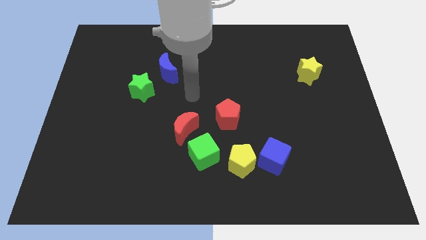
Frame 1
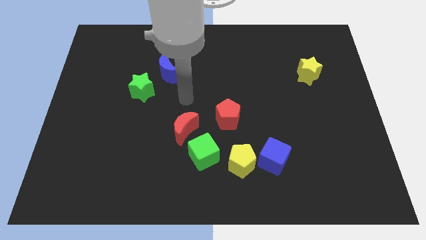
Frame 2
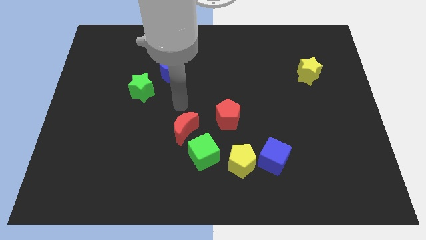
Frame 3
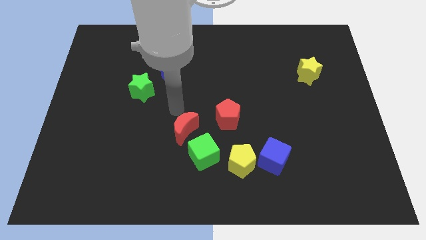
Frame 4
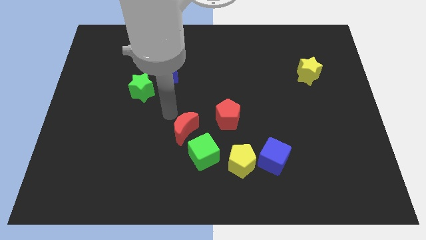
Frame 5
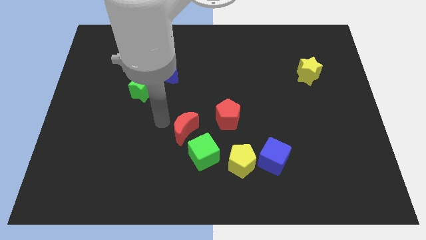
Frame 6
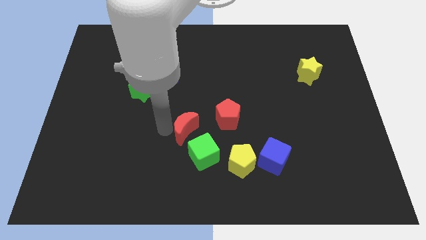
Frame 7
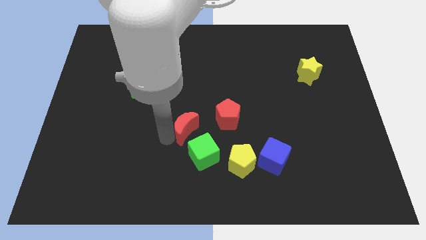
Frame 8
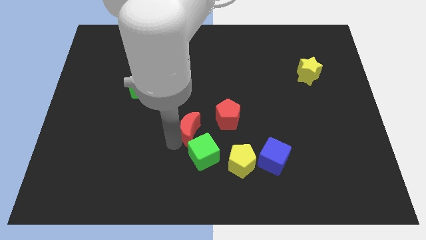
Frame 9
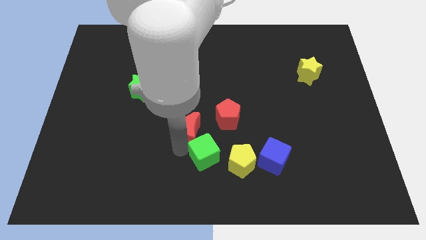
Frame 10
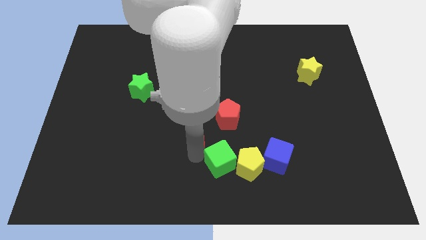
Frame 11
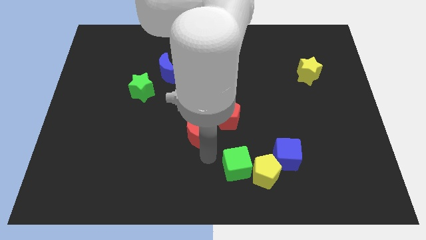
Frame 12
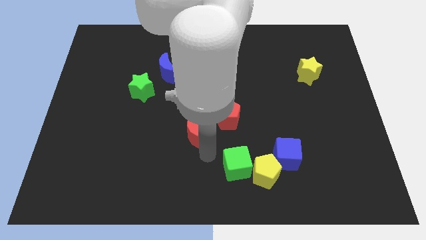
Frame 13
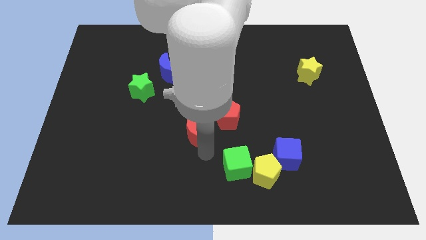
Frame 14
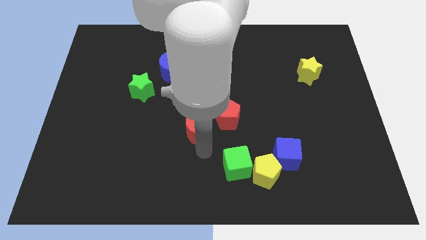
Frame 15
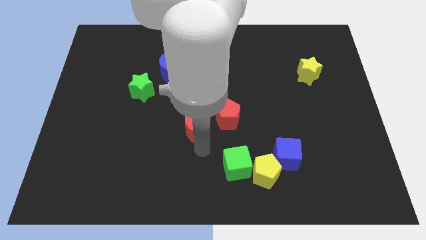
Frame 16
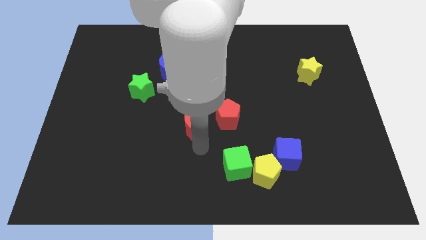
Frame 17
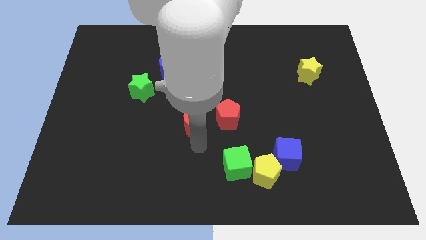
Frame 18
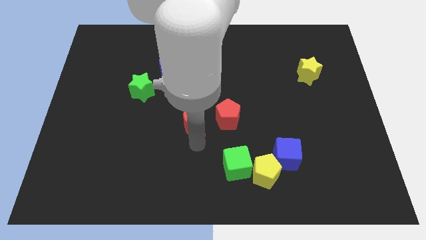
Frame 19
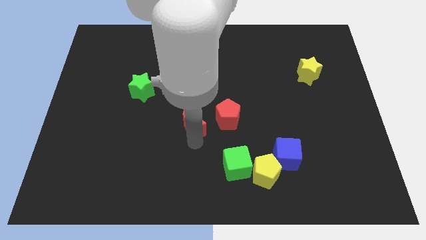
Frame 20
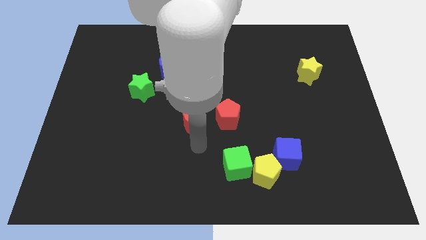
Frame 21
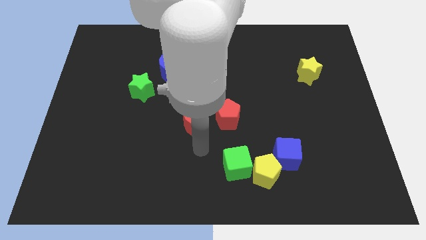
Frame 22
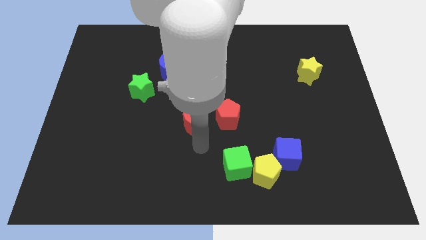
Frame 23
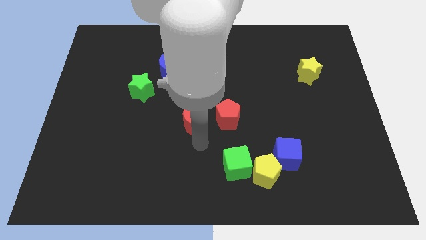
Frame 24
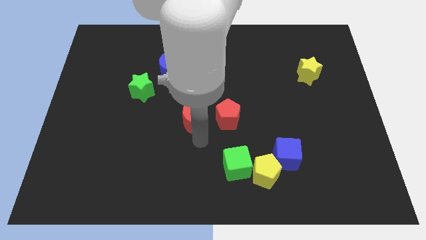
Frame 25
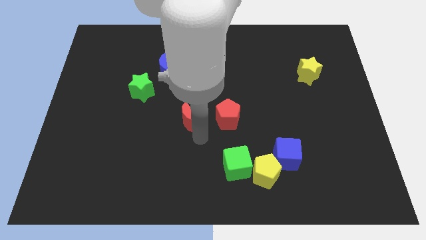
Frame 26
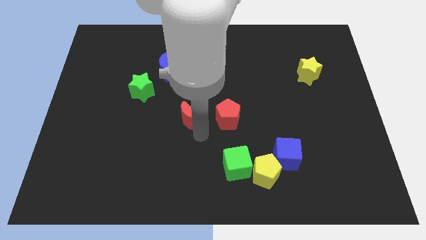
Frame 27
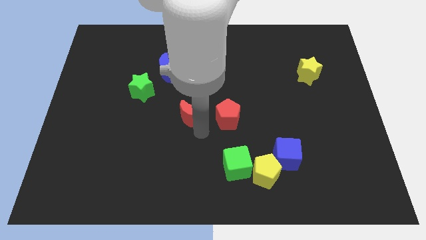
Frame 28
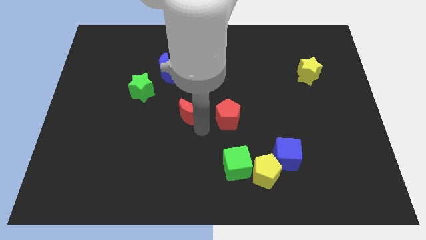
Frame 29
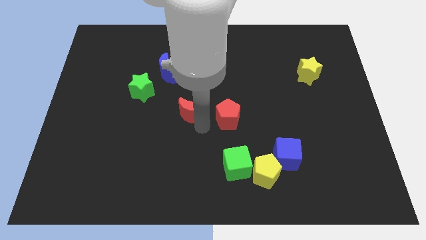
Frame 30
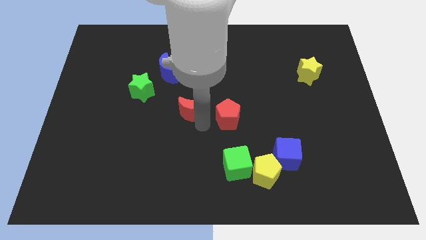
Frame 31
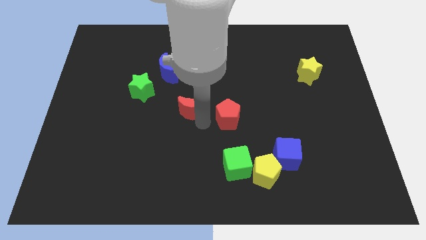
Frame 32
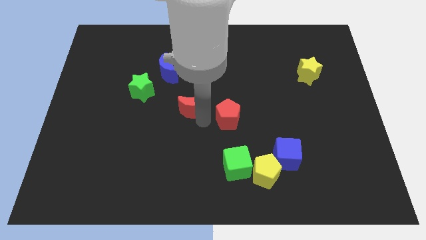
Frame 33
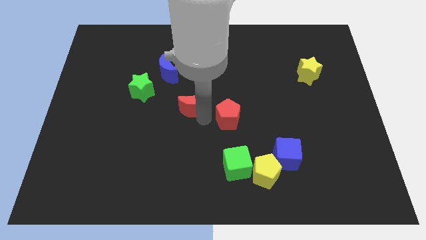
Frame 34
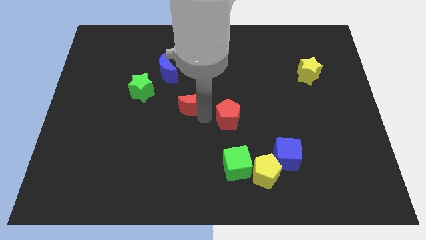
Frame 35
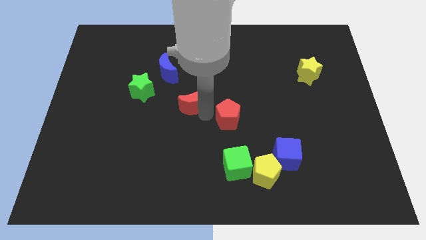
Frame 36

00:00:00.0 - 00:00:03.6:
move the red moon up a bit

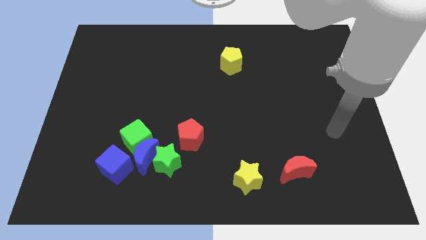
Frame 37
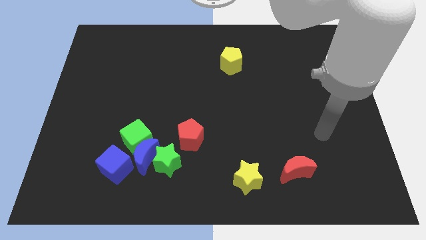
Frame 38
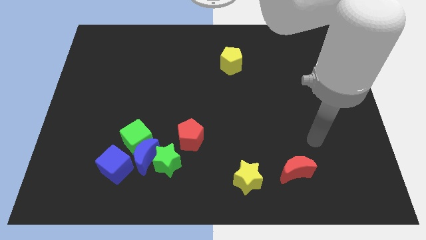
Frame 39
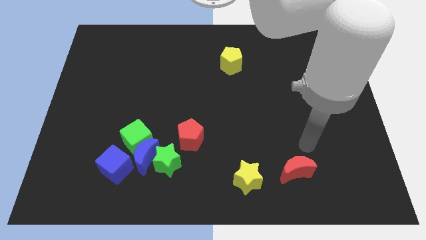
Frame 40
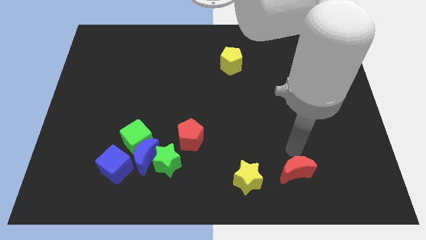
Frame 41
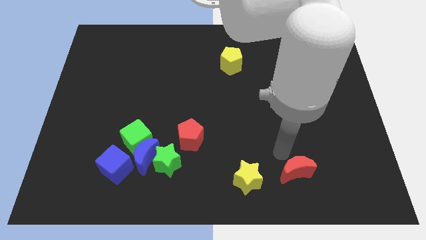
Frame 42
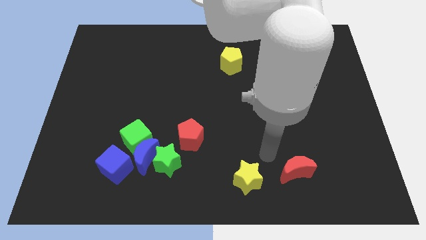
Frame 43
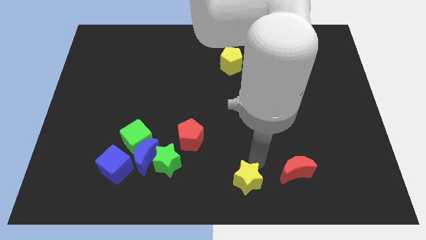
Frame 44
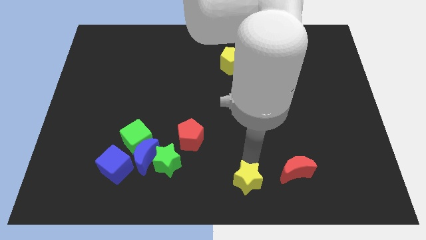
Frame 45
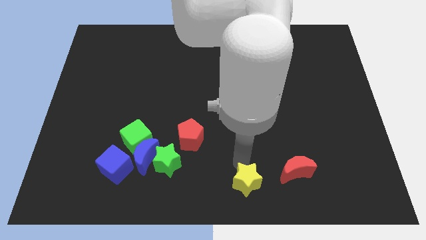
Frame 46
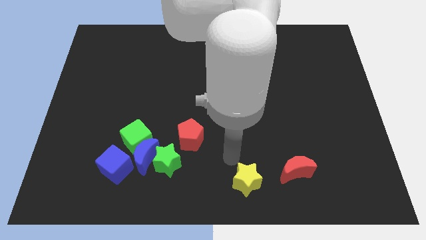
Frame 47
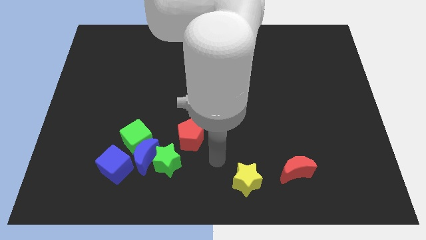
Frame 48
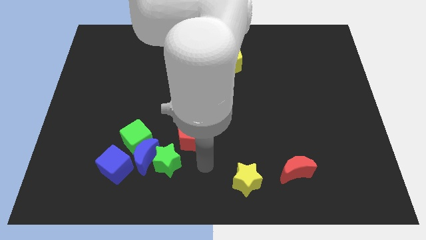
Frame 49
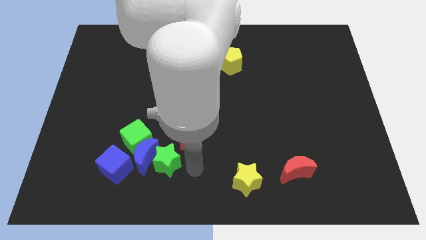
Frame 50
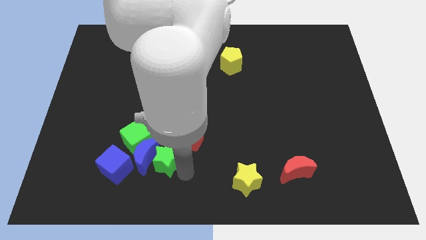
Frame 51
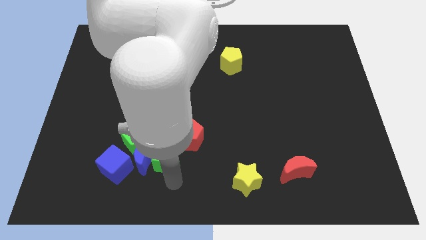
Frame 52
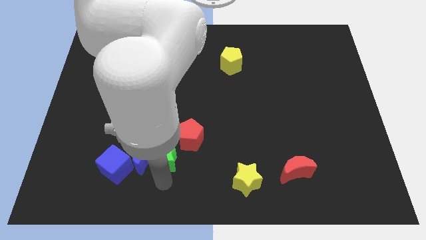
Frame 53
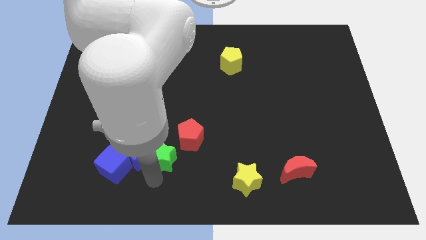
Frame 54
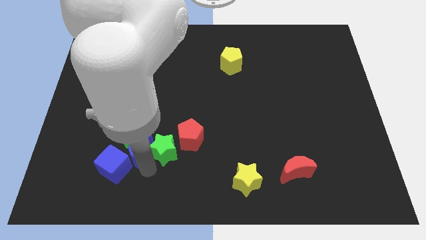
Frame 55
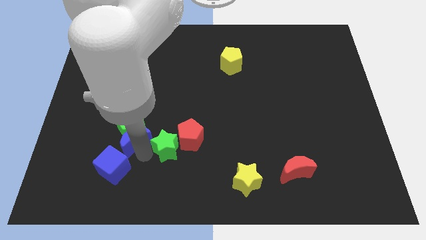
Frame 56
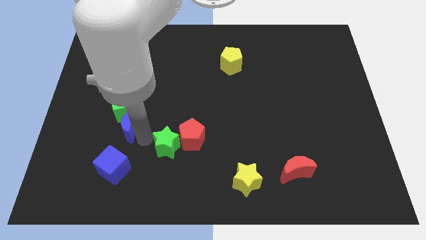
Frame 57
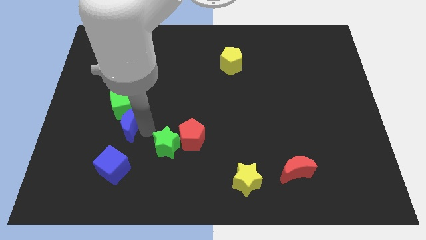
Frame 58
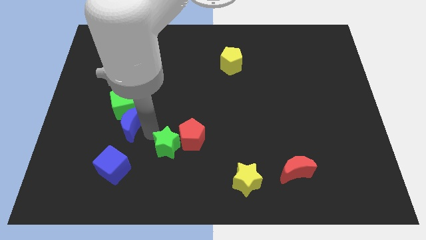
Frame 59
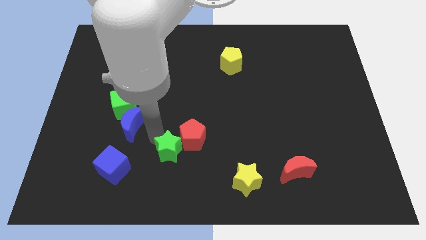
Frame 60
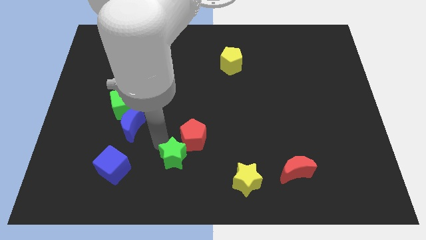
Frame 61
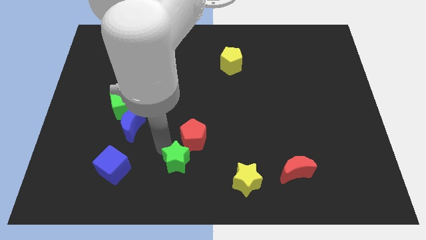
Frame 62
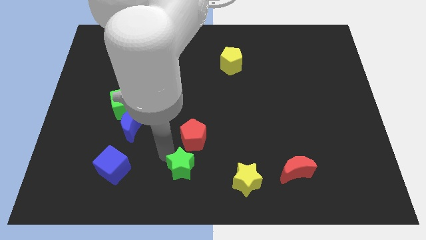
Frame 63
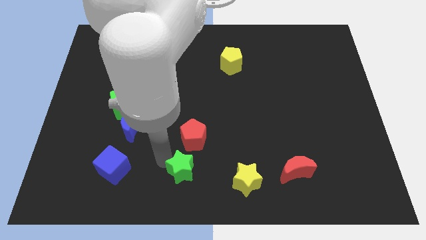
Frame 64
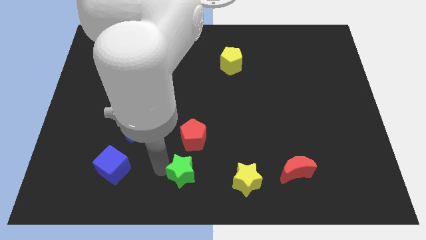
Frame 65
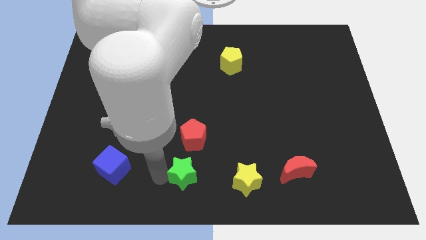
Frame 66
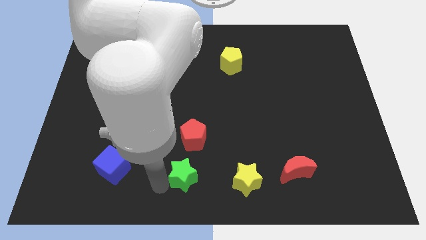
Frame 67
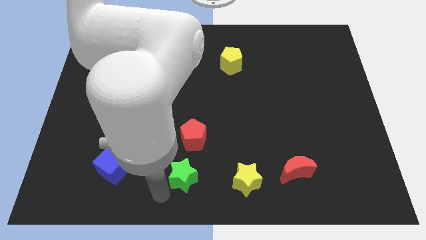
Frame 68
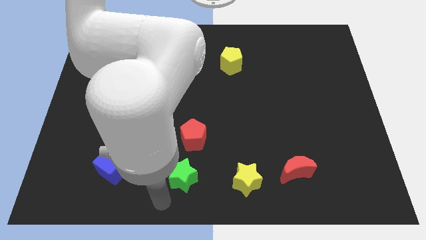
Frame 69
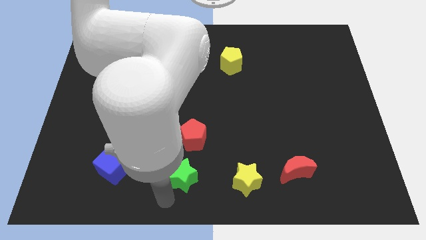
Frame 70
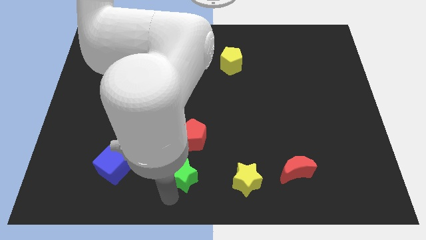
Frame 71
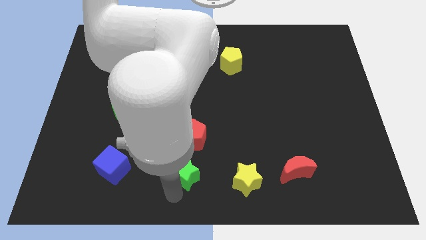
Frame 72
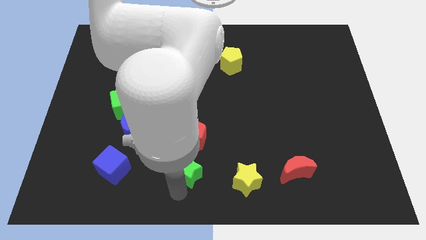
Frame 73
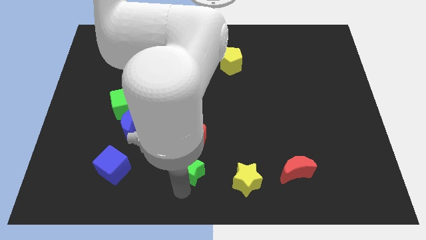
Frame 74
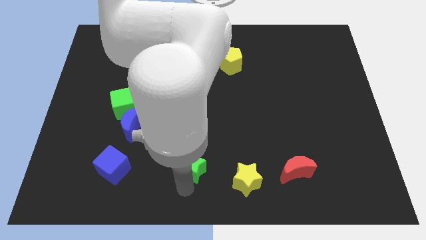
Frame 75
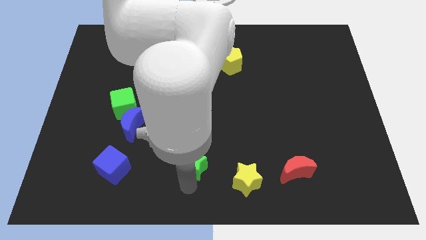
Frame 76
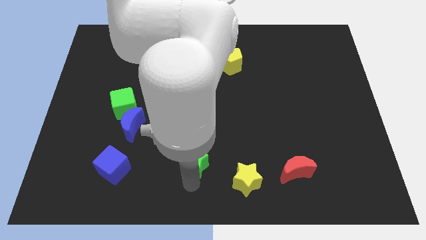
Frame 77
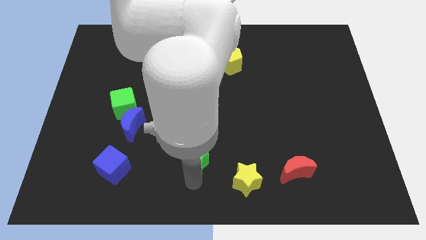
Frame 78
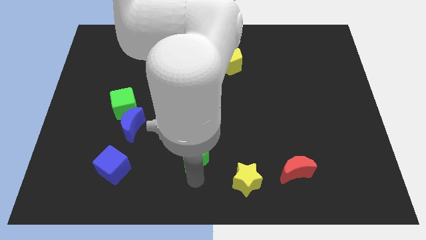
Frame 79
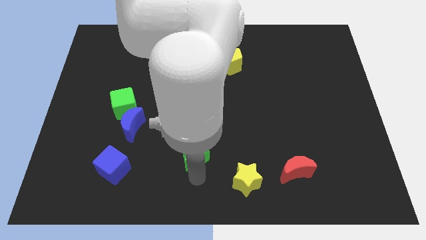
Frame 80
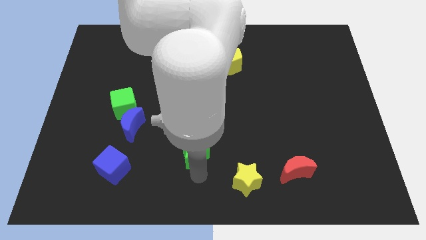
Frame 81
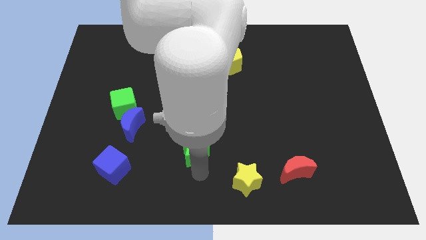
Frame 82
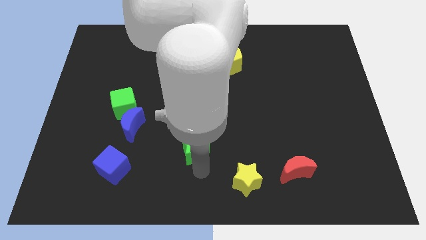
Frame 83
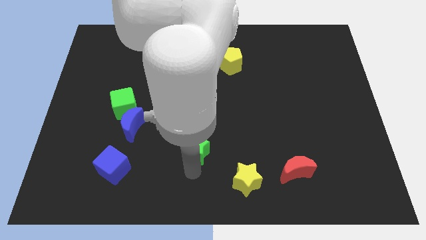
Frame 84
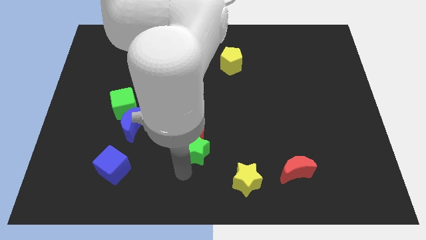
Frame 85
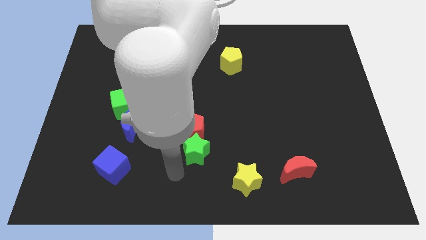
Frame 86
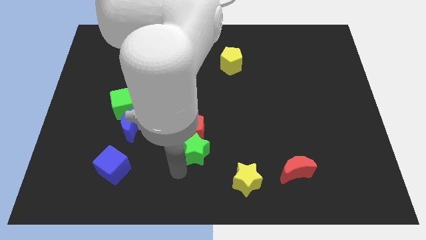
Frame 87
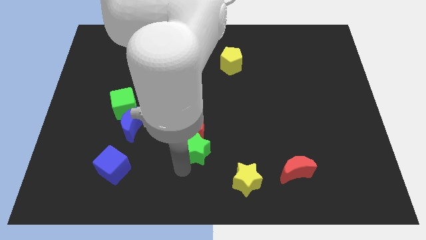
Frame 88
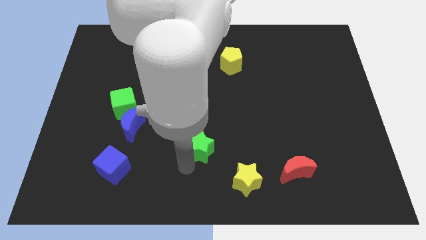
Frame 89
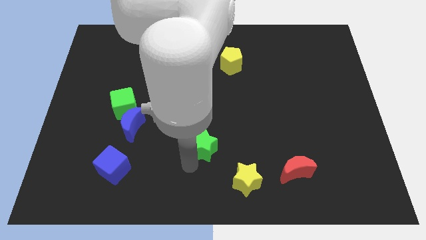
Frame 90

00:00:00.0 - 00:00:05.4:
slightly push the green star upwards and then right
